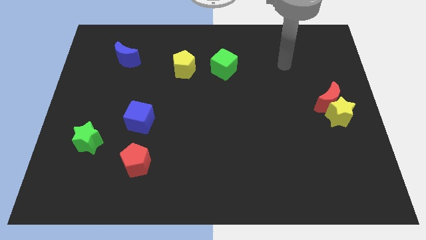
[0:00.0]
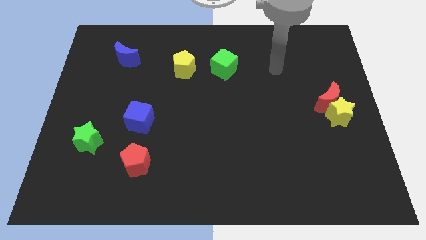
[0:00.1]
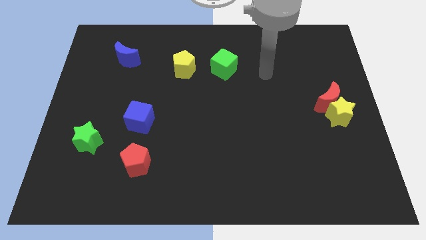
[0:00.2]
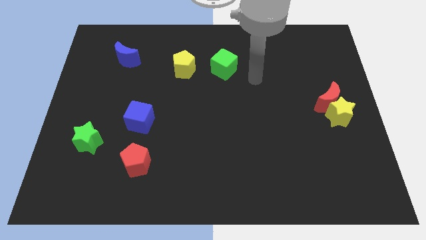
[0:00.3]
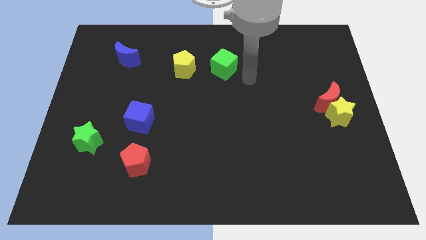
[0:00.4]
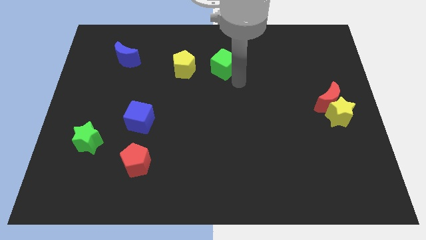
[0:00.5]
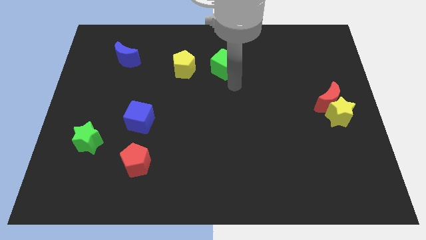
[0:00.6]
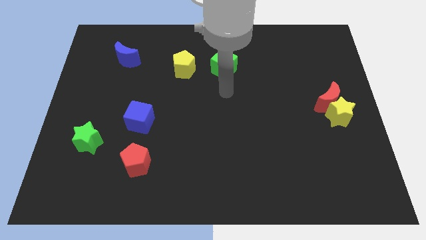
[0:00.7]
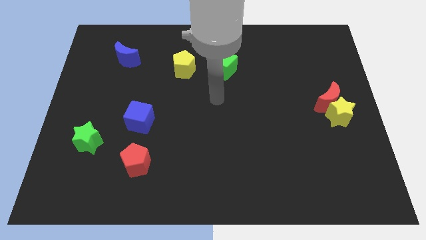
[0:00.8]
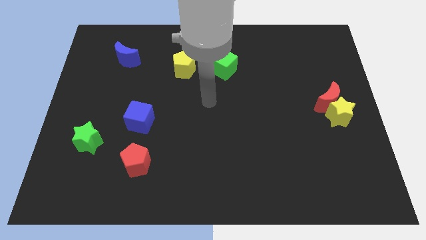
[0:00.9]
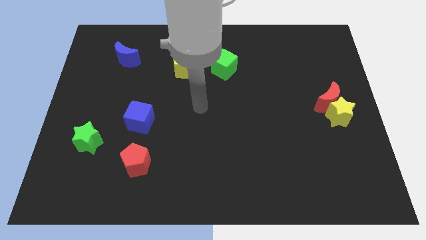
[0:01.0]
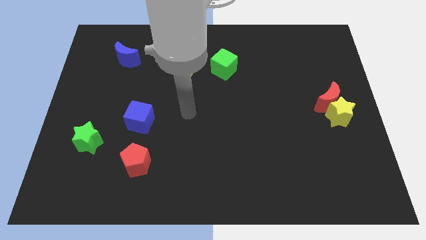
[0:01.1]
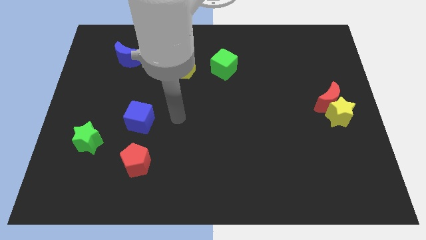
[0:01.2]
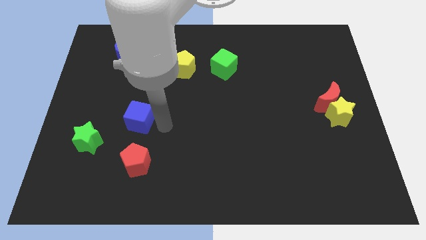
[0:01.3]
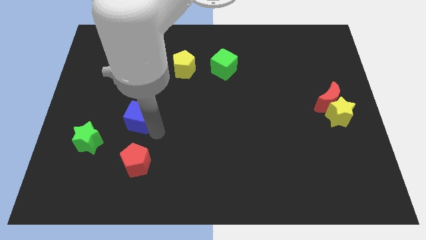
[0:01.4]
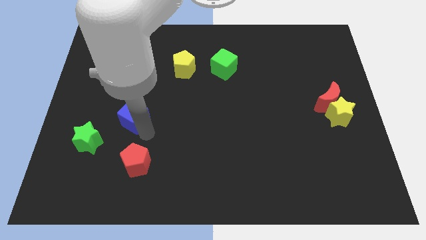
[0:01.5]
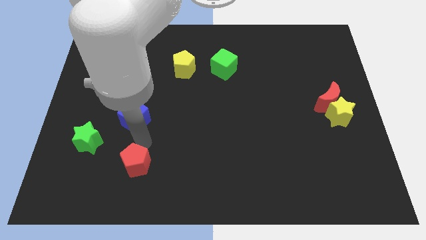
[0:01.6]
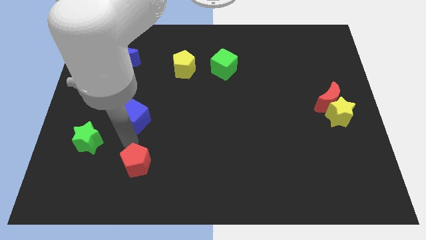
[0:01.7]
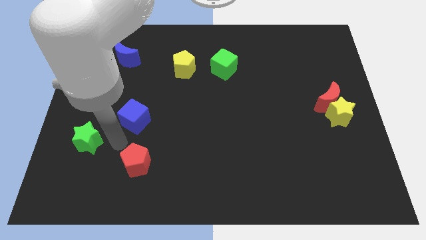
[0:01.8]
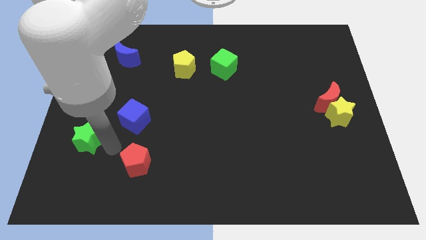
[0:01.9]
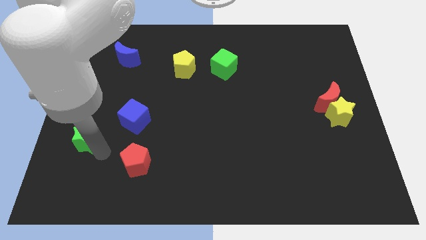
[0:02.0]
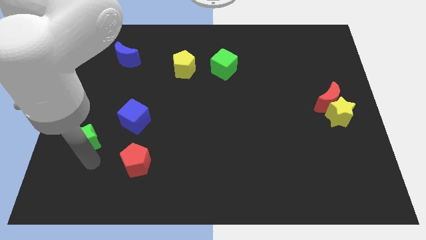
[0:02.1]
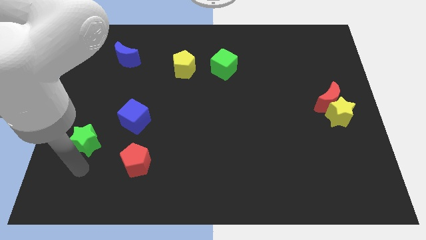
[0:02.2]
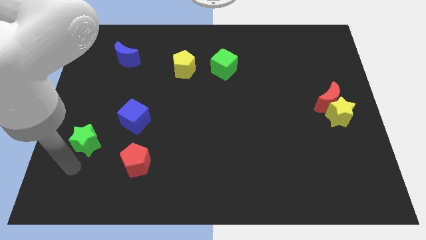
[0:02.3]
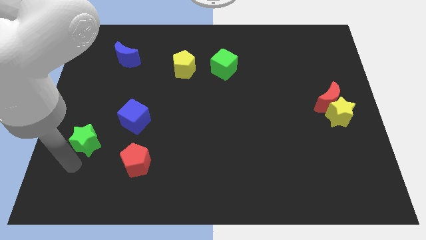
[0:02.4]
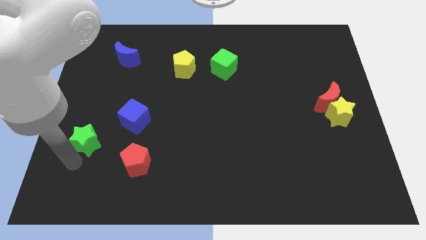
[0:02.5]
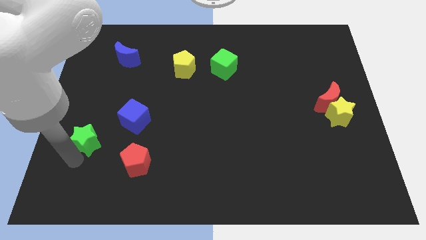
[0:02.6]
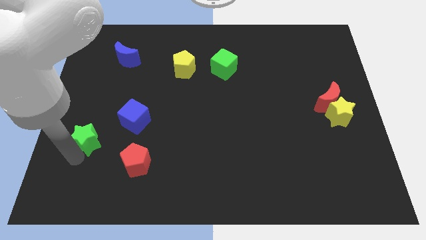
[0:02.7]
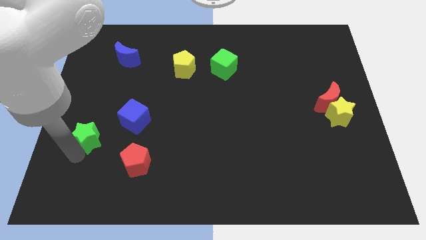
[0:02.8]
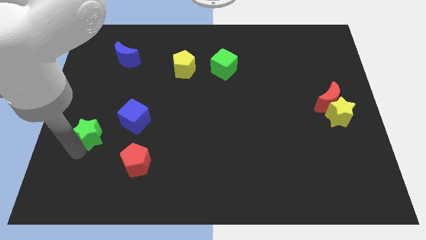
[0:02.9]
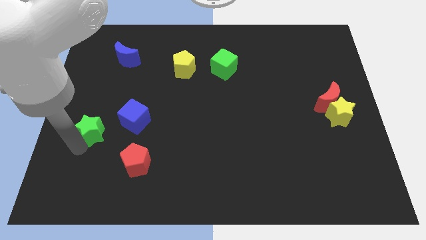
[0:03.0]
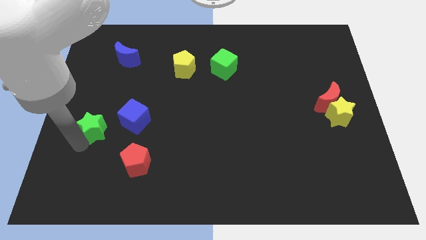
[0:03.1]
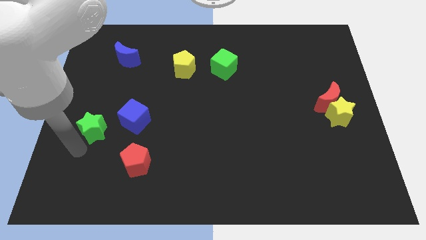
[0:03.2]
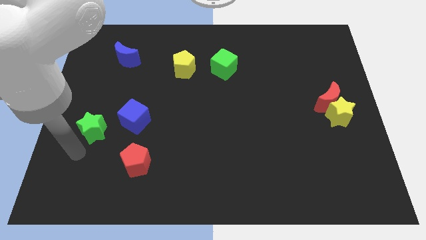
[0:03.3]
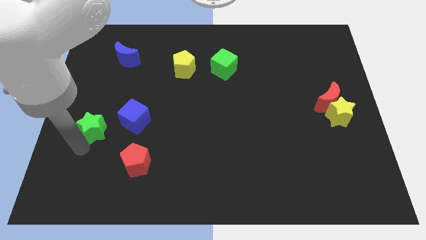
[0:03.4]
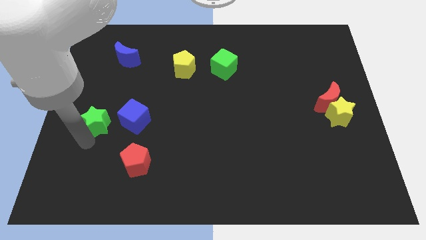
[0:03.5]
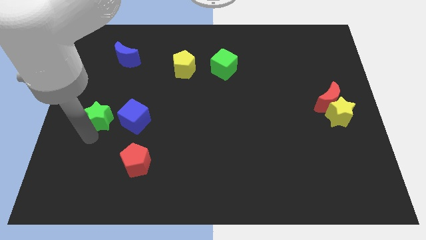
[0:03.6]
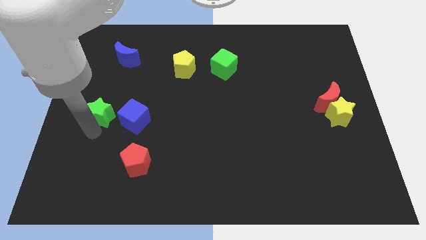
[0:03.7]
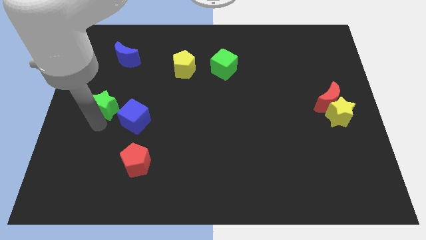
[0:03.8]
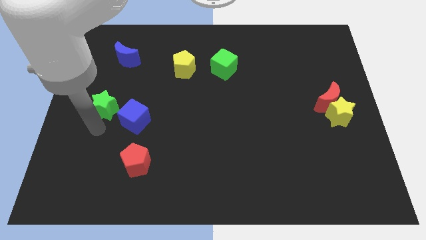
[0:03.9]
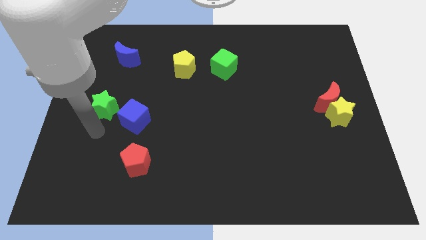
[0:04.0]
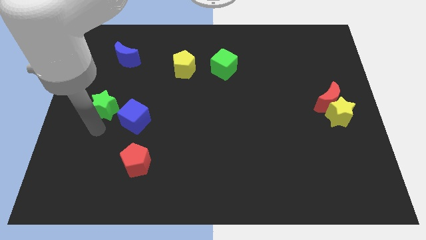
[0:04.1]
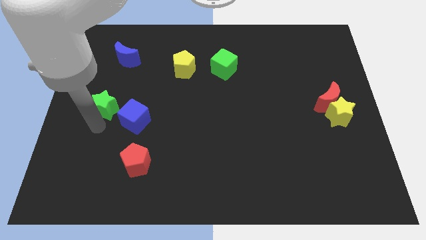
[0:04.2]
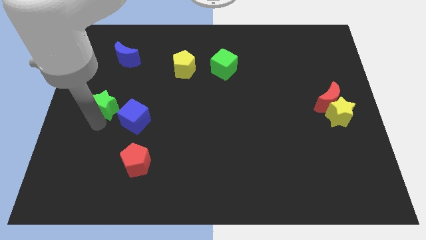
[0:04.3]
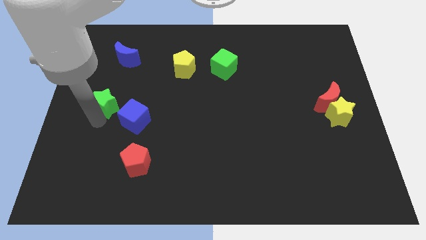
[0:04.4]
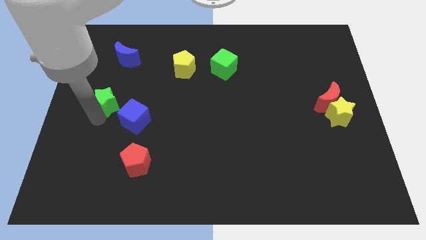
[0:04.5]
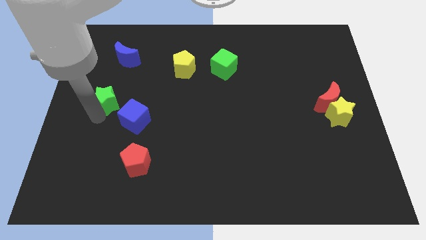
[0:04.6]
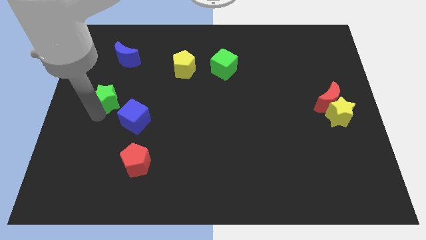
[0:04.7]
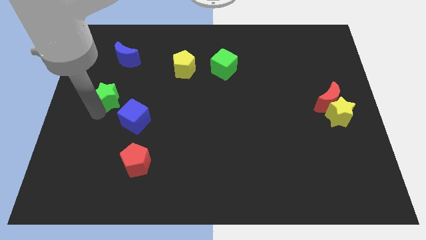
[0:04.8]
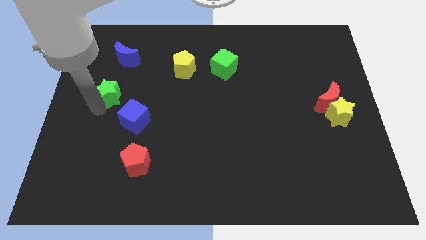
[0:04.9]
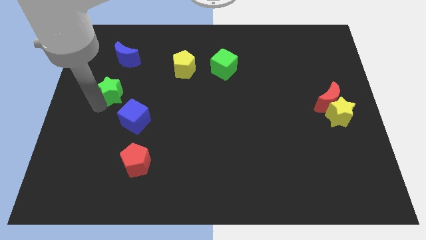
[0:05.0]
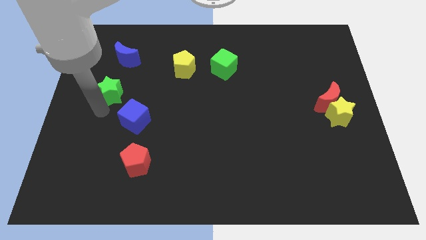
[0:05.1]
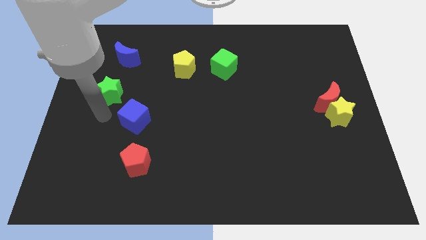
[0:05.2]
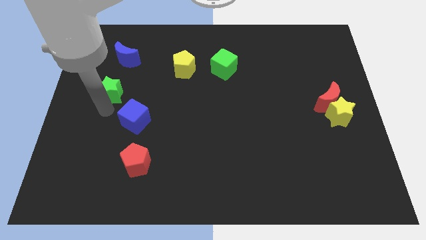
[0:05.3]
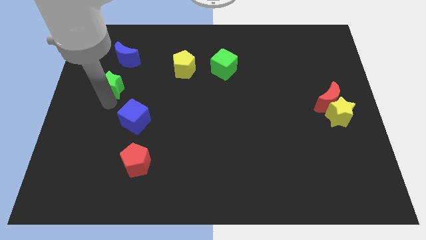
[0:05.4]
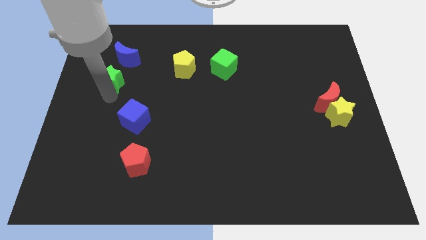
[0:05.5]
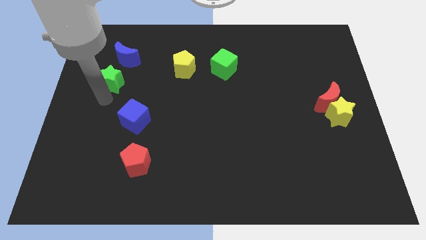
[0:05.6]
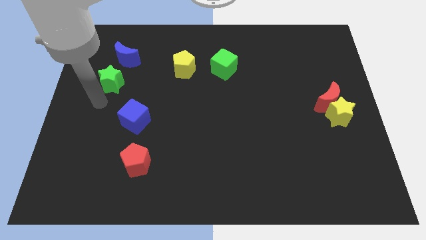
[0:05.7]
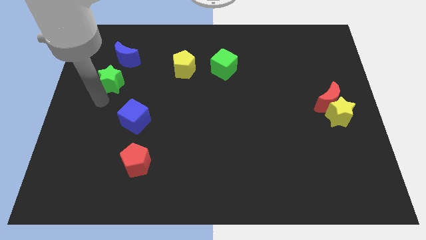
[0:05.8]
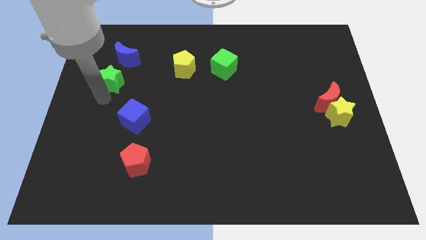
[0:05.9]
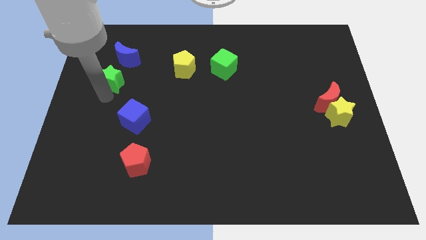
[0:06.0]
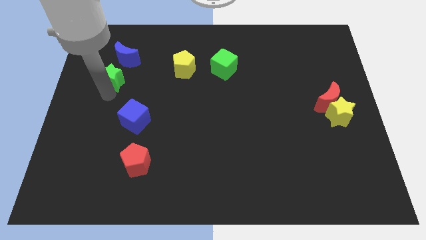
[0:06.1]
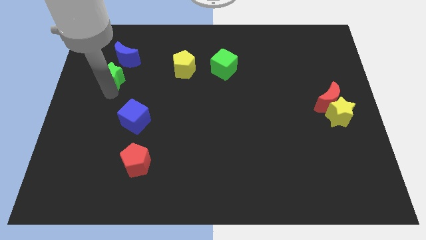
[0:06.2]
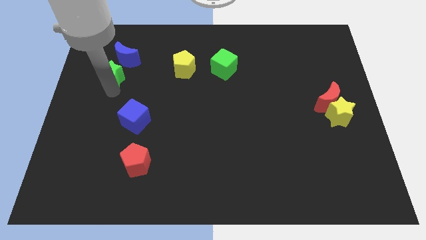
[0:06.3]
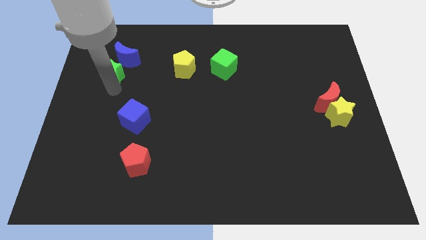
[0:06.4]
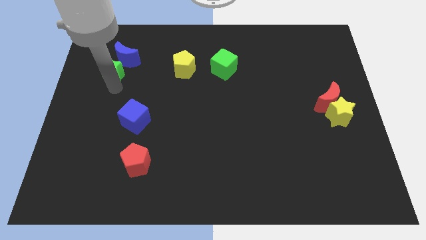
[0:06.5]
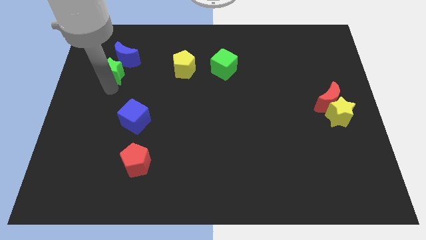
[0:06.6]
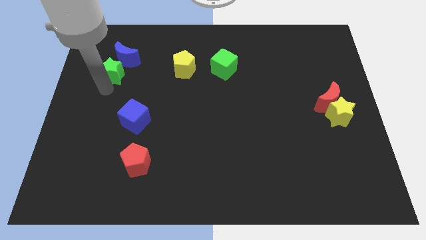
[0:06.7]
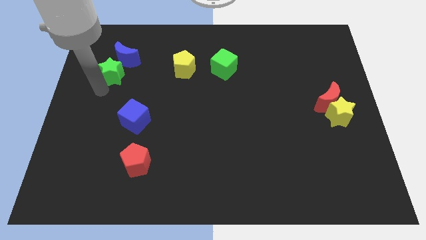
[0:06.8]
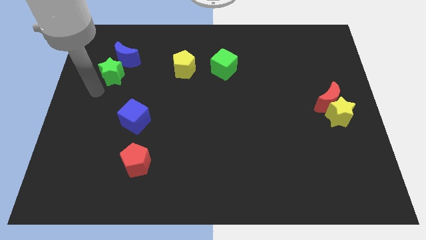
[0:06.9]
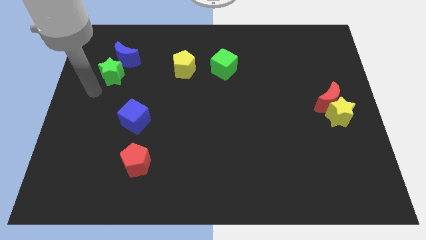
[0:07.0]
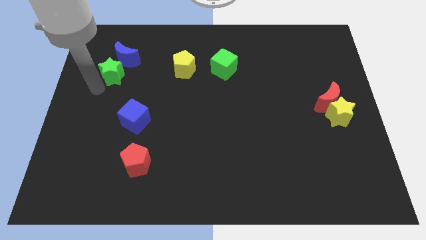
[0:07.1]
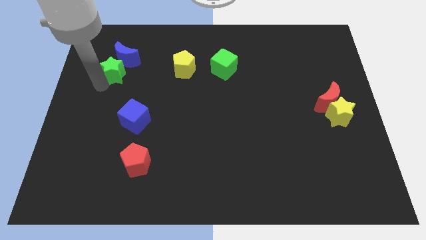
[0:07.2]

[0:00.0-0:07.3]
put the green star towards the blue moon

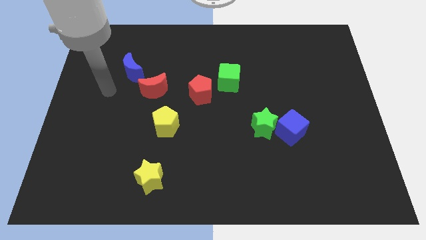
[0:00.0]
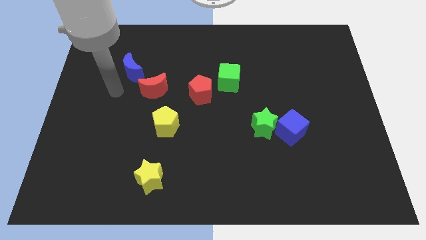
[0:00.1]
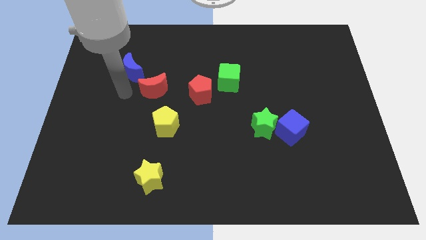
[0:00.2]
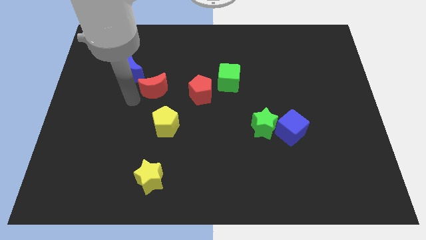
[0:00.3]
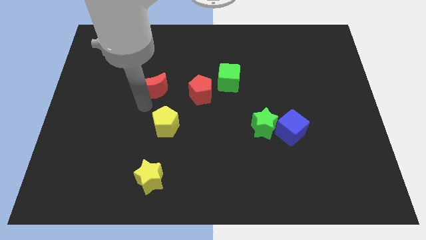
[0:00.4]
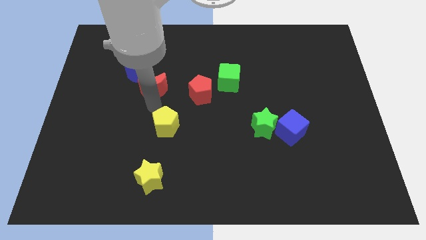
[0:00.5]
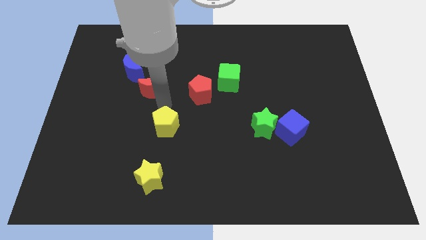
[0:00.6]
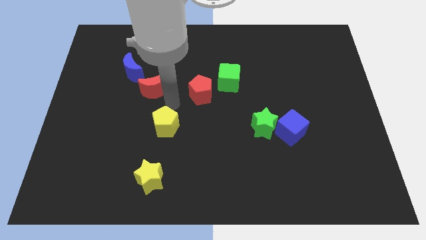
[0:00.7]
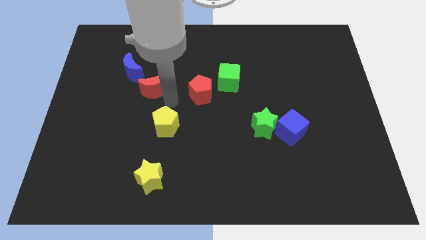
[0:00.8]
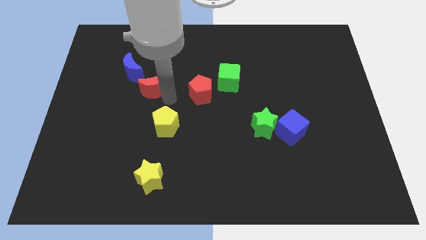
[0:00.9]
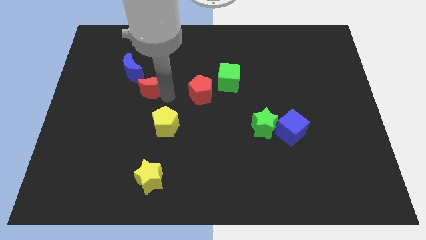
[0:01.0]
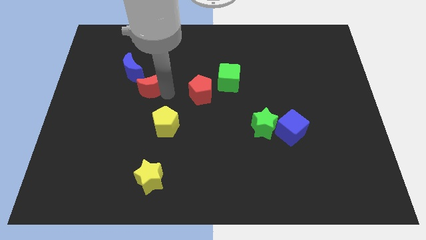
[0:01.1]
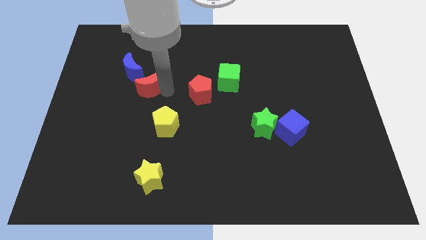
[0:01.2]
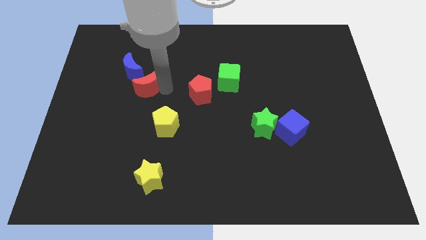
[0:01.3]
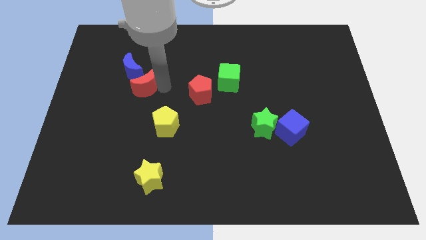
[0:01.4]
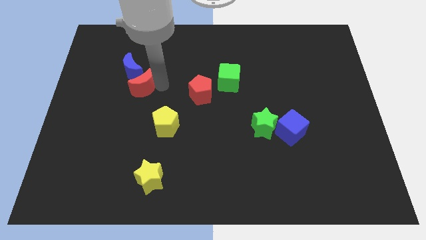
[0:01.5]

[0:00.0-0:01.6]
move the red moon next to the blue moon
